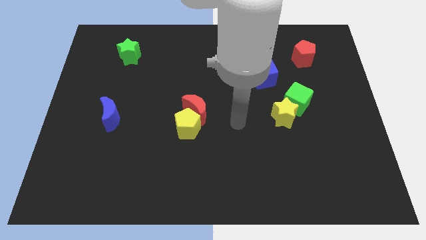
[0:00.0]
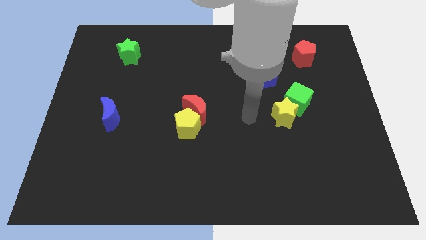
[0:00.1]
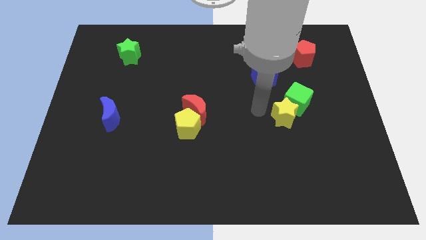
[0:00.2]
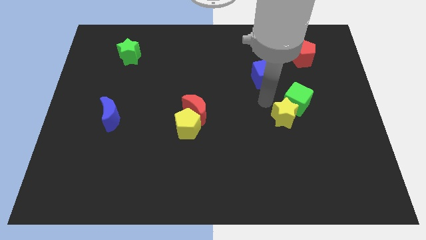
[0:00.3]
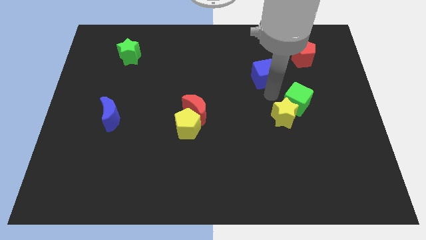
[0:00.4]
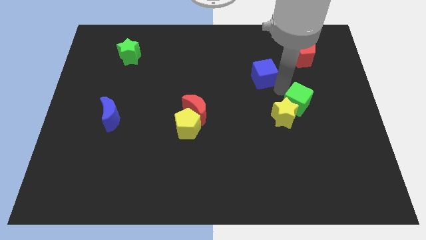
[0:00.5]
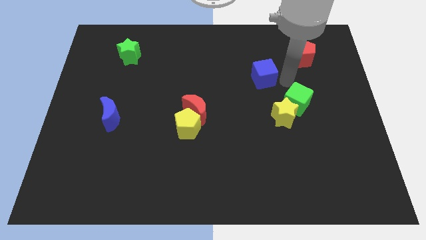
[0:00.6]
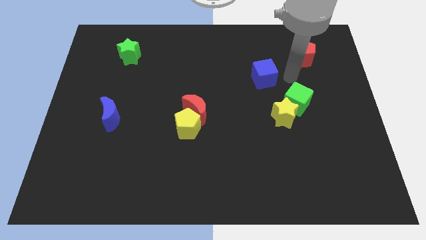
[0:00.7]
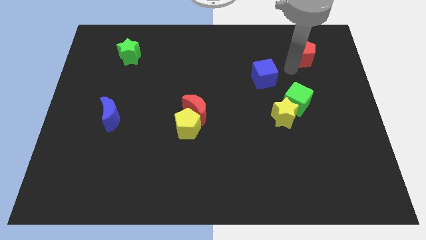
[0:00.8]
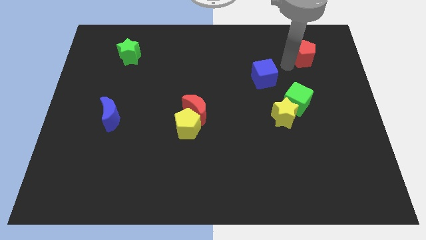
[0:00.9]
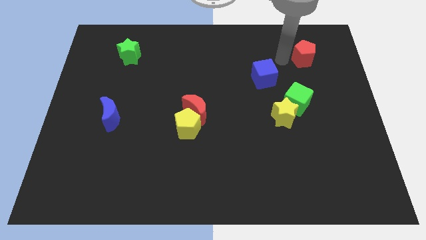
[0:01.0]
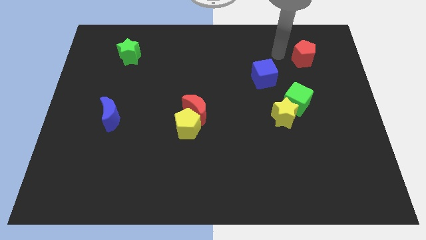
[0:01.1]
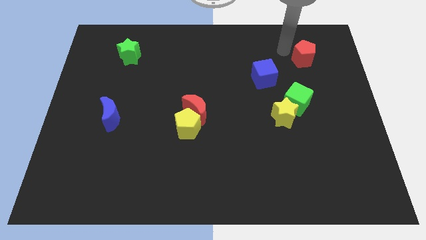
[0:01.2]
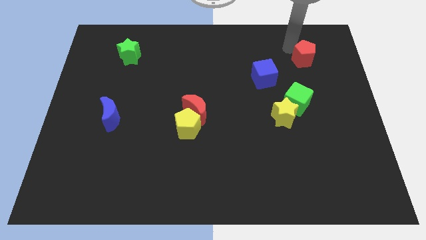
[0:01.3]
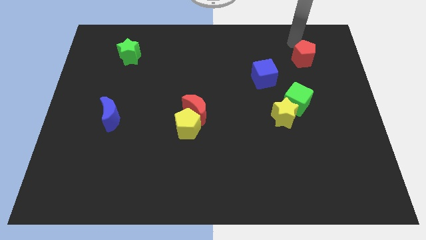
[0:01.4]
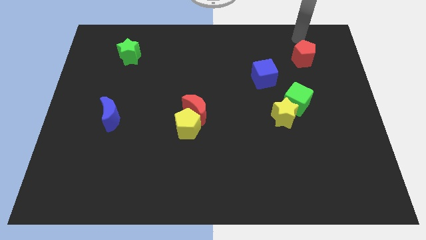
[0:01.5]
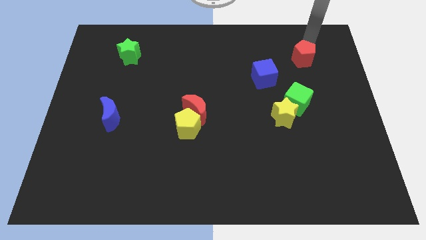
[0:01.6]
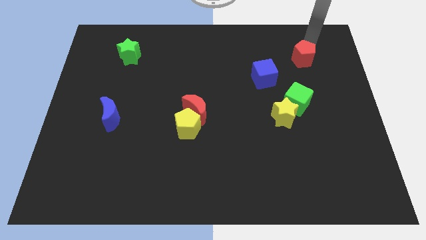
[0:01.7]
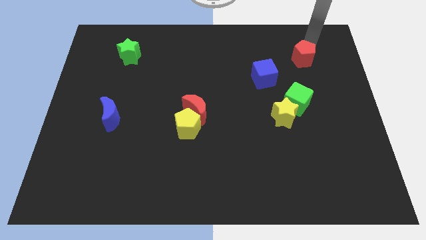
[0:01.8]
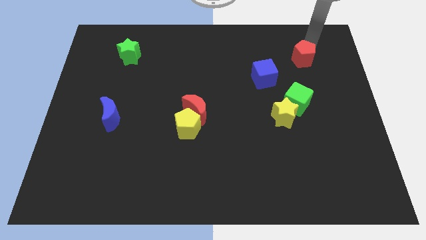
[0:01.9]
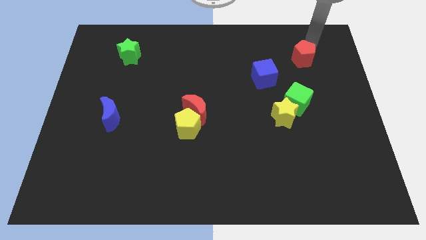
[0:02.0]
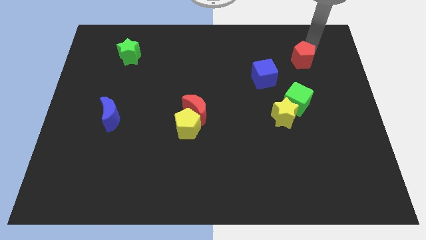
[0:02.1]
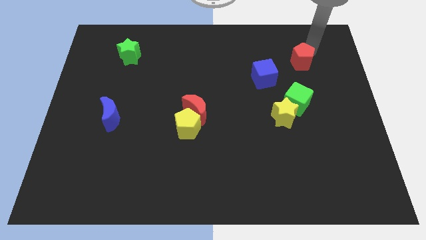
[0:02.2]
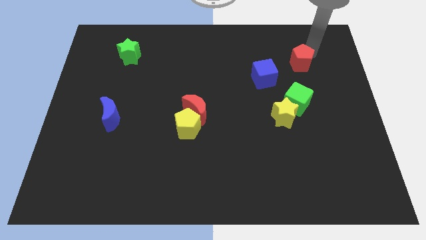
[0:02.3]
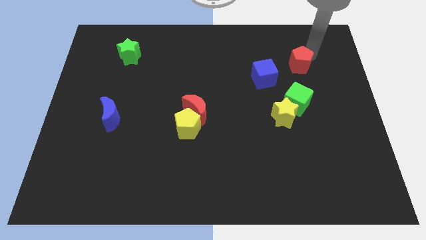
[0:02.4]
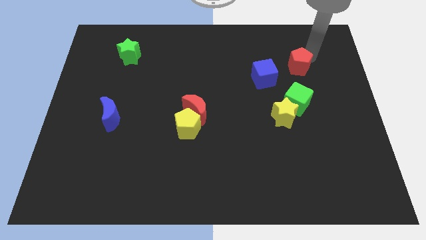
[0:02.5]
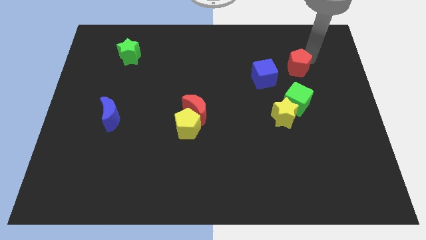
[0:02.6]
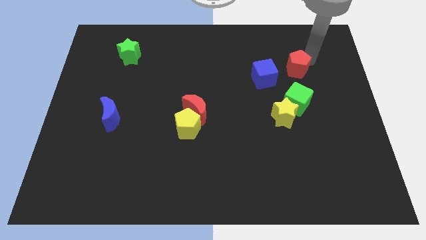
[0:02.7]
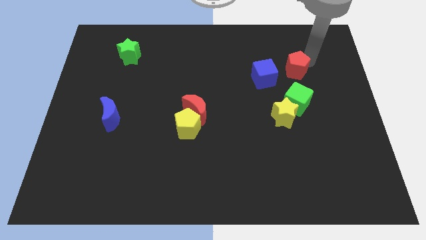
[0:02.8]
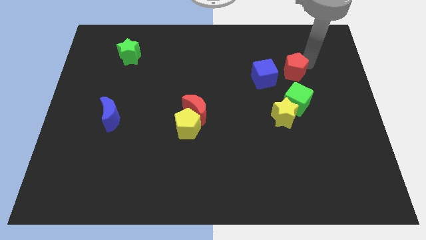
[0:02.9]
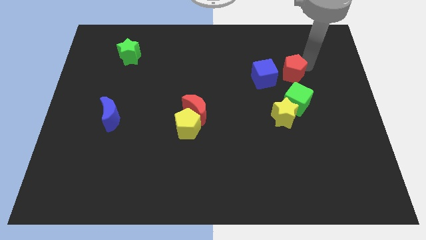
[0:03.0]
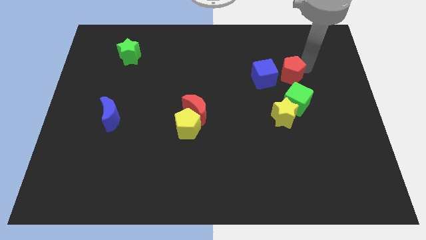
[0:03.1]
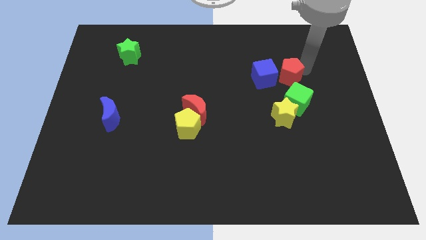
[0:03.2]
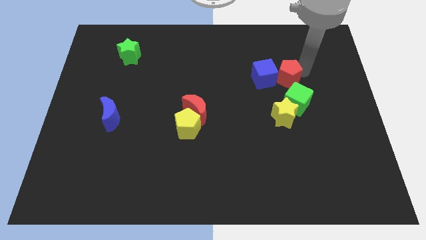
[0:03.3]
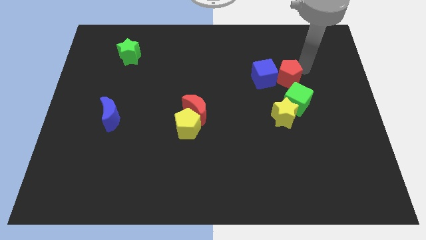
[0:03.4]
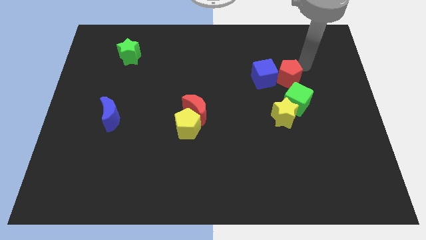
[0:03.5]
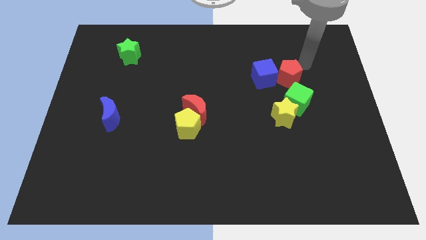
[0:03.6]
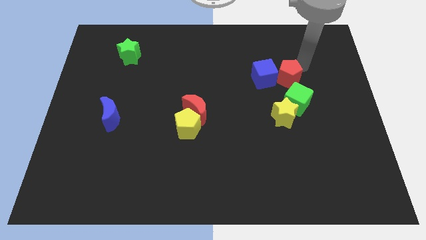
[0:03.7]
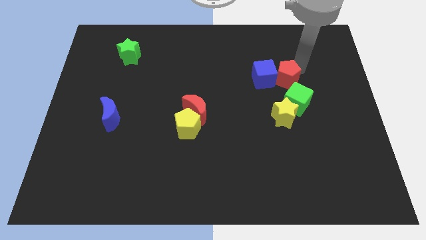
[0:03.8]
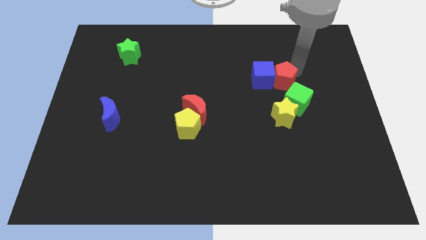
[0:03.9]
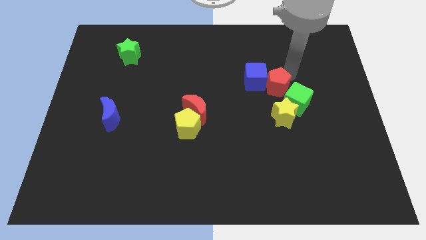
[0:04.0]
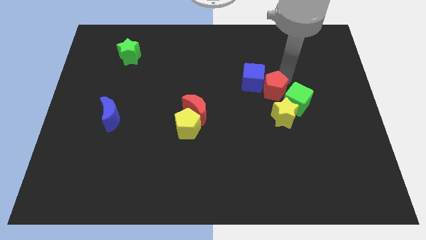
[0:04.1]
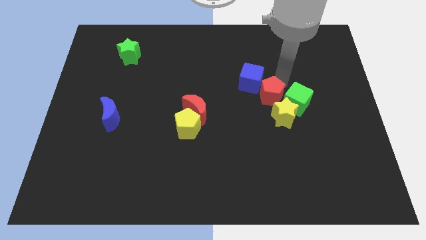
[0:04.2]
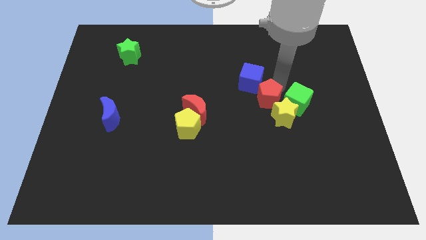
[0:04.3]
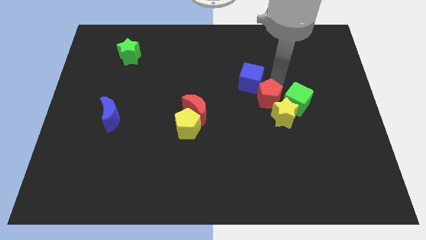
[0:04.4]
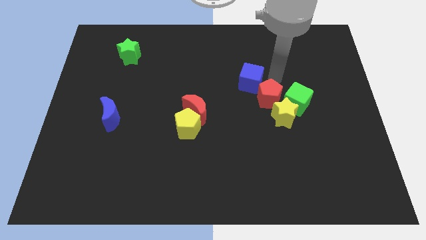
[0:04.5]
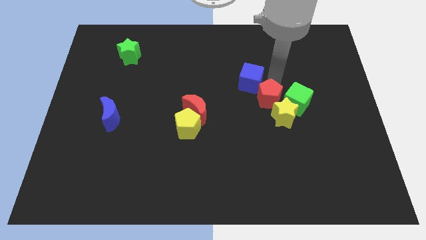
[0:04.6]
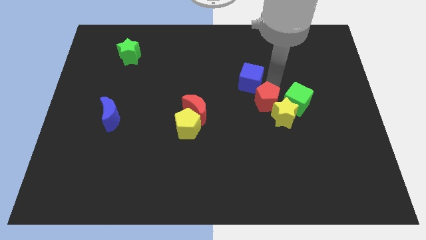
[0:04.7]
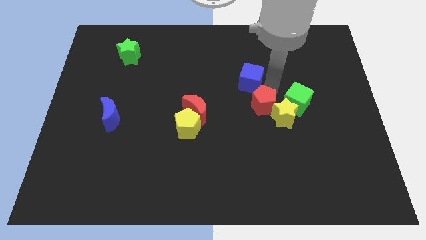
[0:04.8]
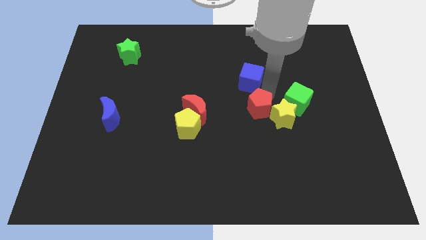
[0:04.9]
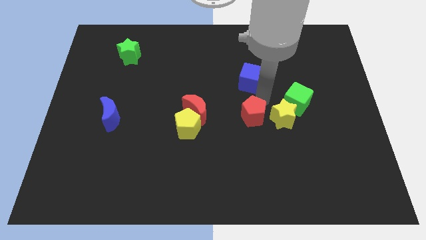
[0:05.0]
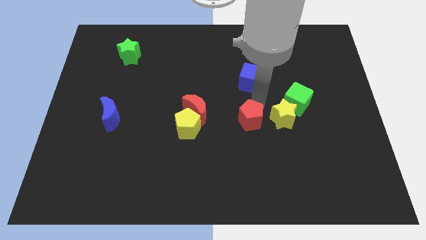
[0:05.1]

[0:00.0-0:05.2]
put the red pentagon to the bottom left side of the yellow star

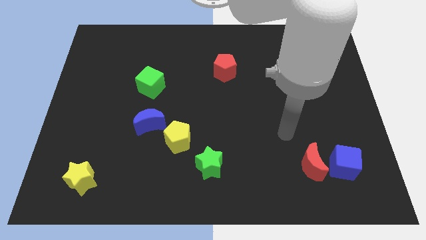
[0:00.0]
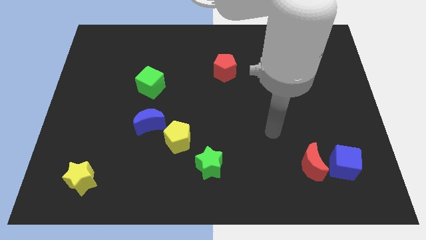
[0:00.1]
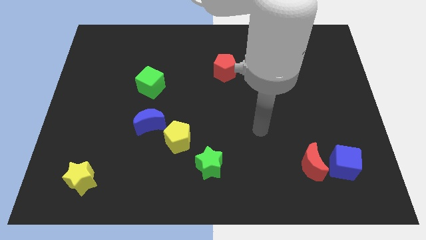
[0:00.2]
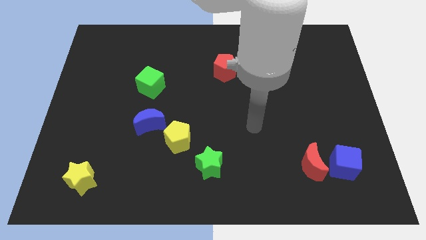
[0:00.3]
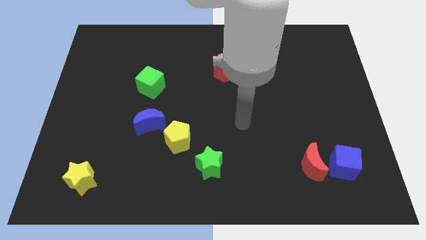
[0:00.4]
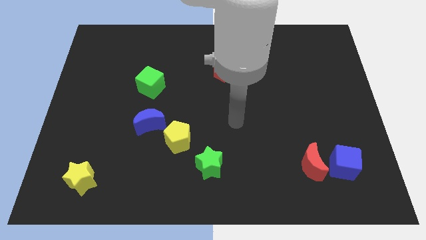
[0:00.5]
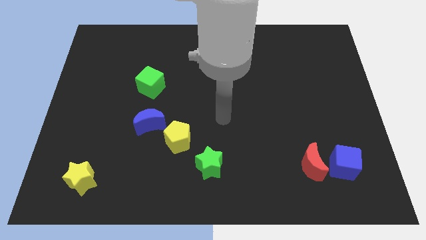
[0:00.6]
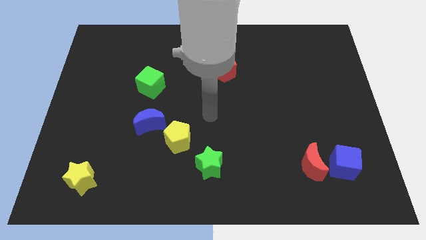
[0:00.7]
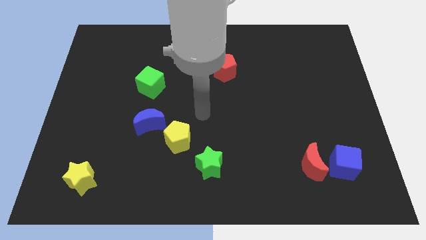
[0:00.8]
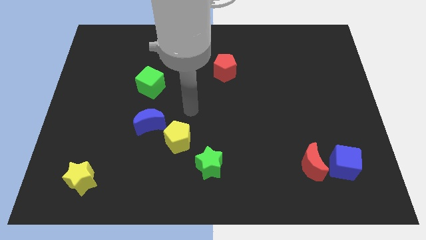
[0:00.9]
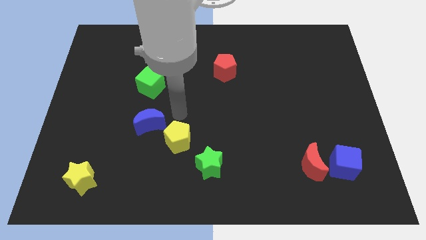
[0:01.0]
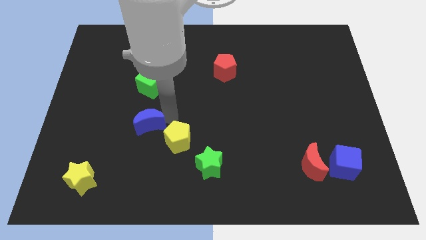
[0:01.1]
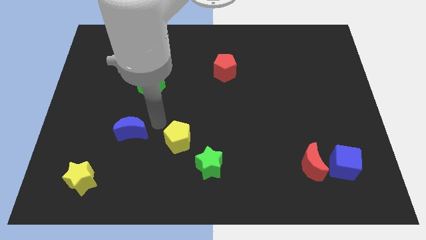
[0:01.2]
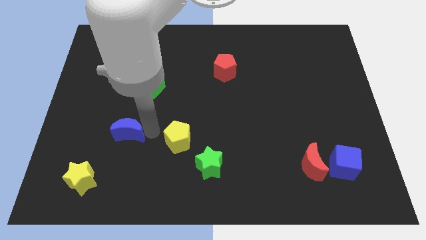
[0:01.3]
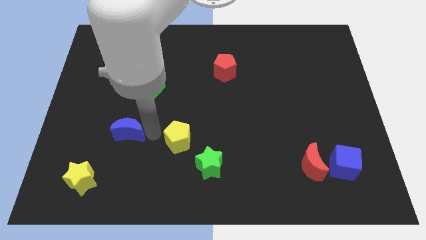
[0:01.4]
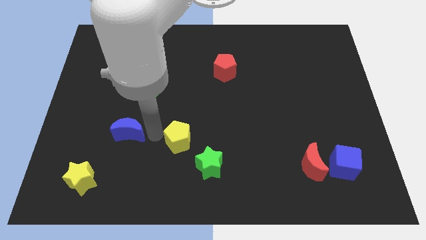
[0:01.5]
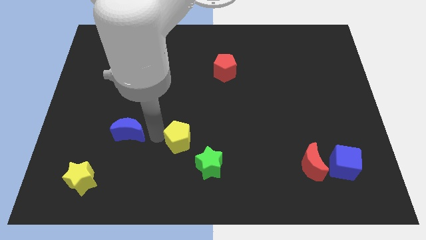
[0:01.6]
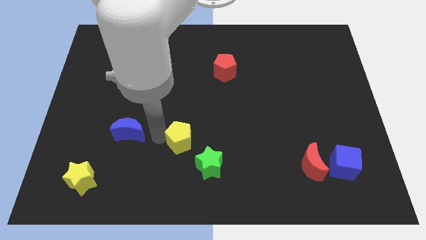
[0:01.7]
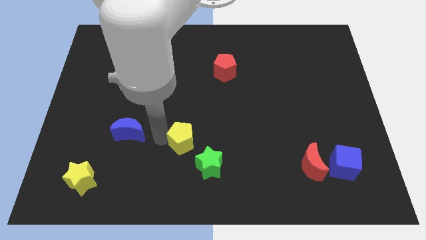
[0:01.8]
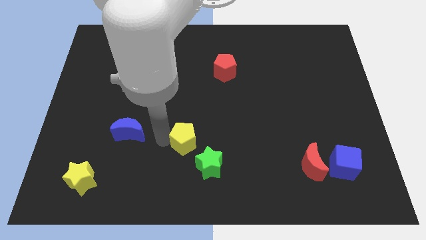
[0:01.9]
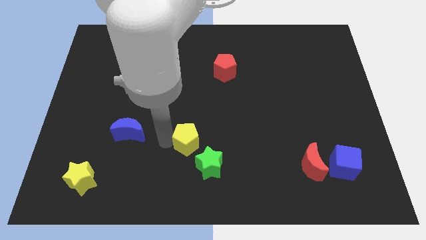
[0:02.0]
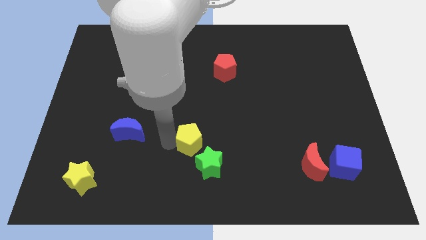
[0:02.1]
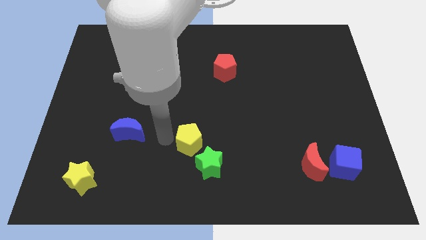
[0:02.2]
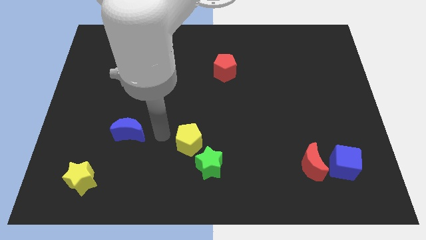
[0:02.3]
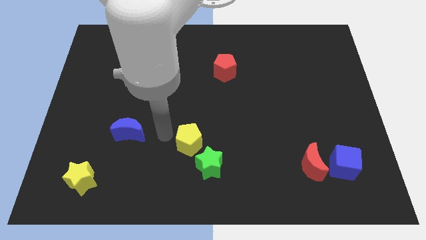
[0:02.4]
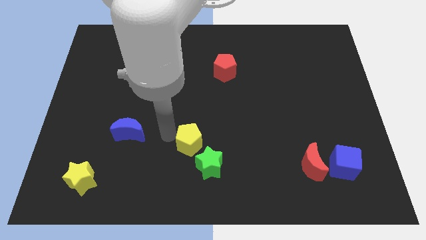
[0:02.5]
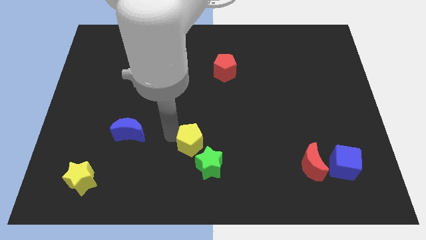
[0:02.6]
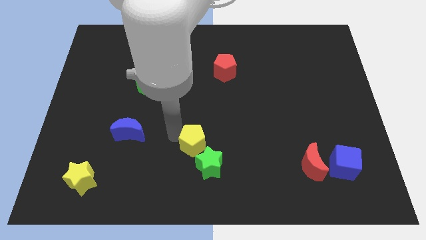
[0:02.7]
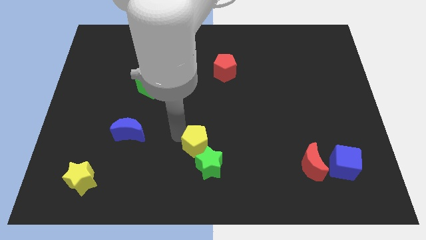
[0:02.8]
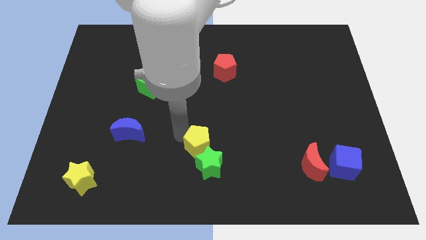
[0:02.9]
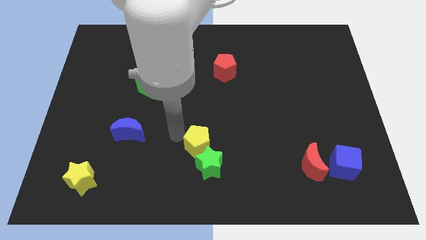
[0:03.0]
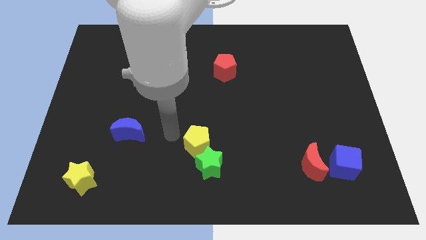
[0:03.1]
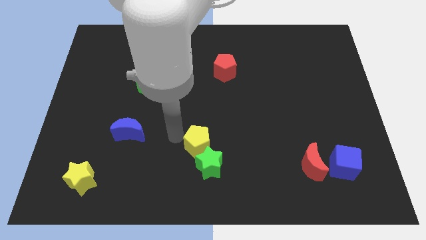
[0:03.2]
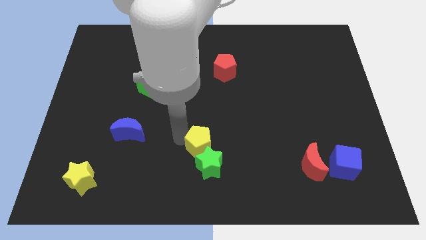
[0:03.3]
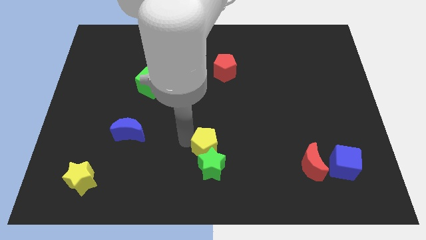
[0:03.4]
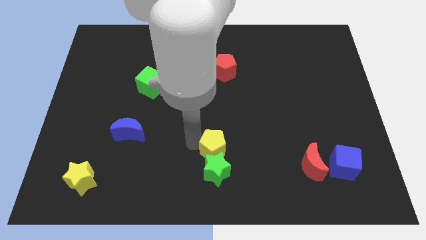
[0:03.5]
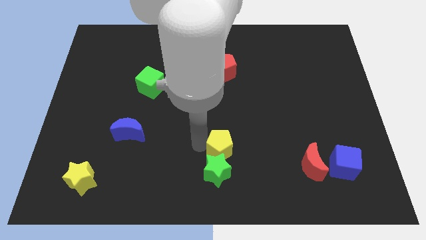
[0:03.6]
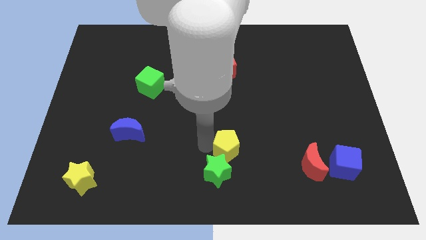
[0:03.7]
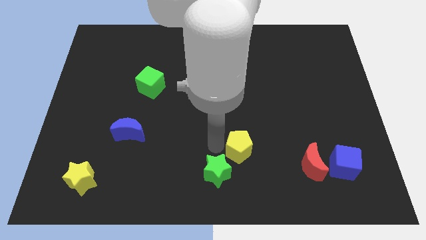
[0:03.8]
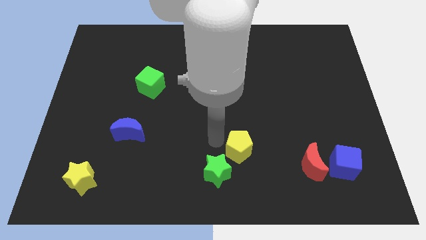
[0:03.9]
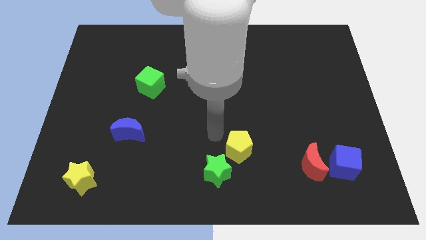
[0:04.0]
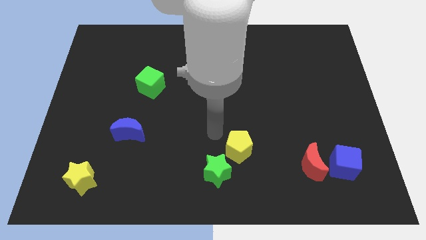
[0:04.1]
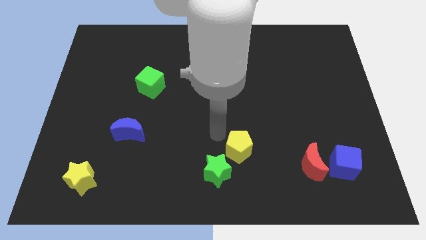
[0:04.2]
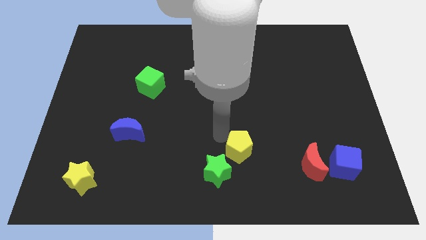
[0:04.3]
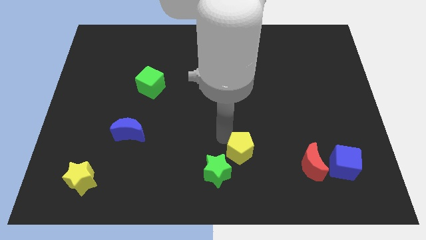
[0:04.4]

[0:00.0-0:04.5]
slide the yellow pentagon left of the red moon
